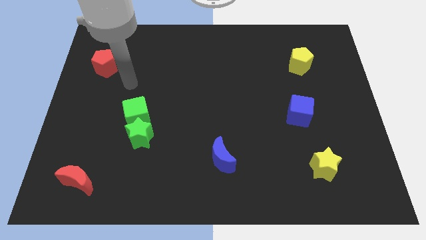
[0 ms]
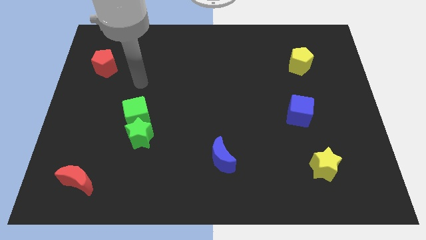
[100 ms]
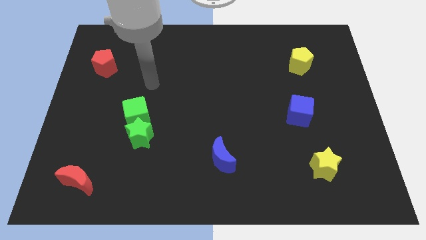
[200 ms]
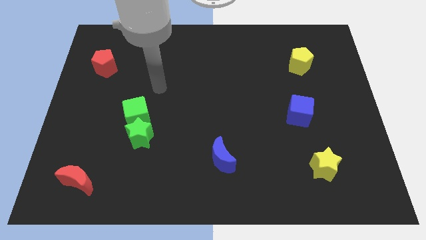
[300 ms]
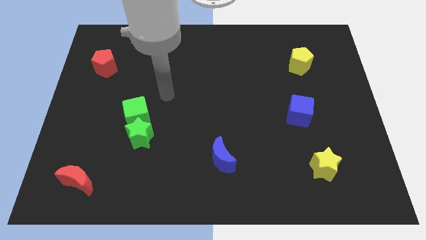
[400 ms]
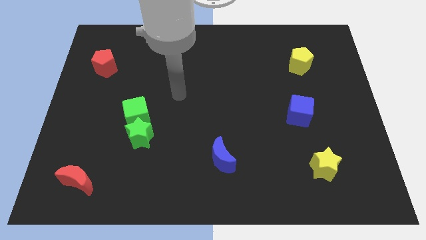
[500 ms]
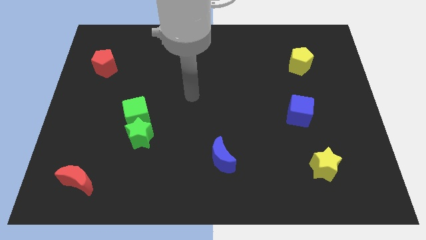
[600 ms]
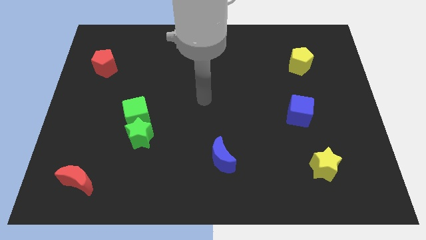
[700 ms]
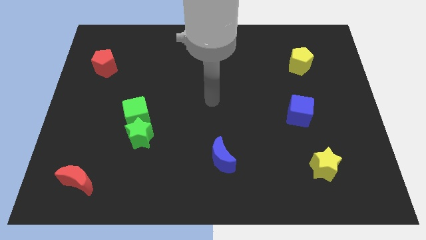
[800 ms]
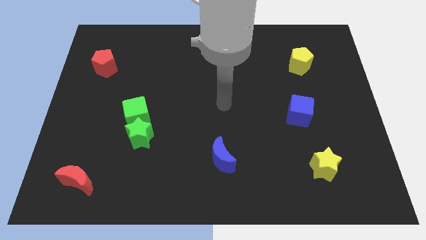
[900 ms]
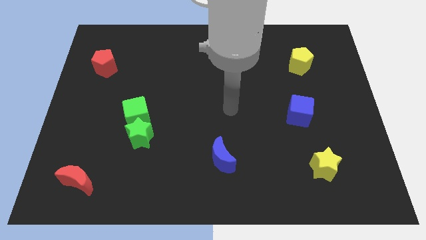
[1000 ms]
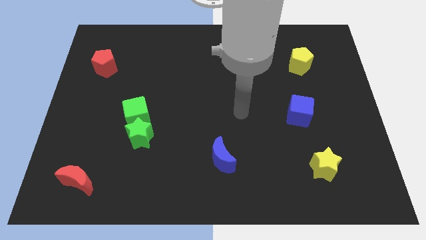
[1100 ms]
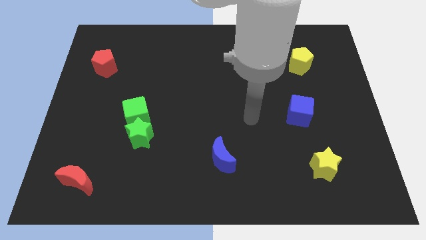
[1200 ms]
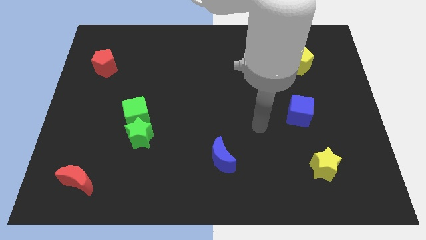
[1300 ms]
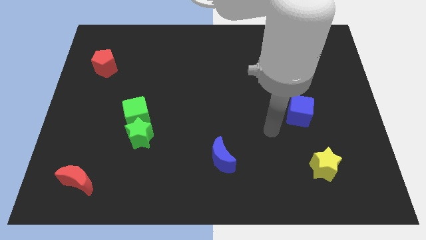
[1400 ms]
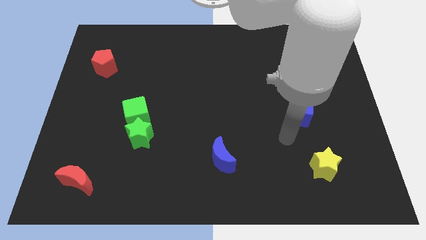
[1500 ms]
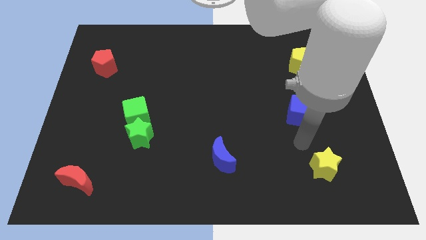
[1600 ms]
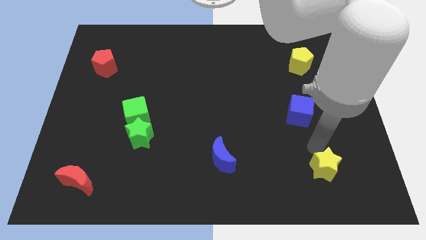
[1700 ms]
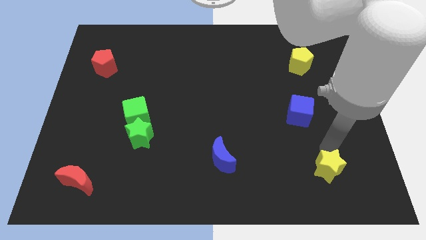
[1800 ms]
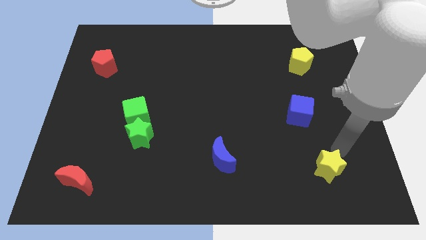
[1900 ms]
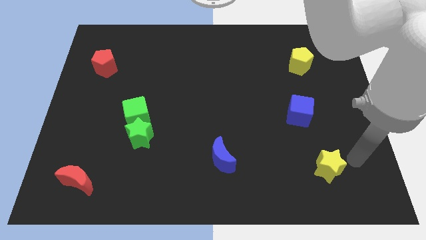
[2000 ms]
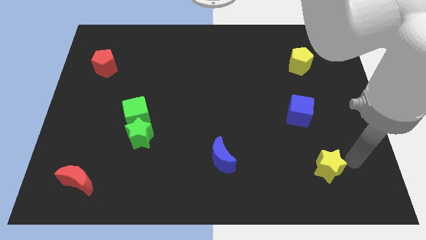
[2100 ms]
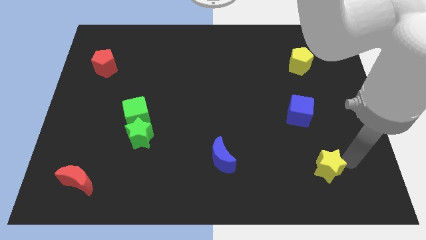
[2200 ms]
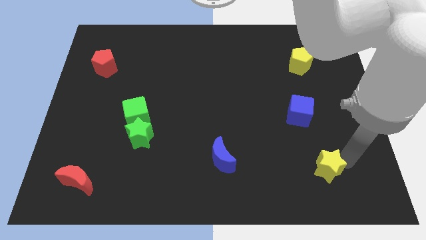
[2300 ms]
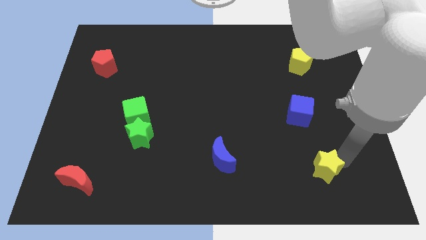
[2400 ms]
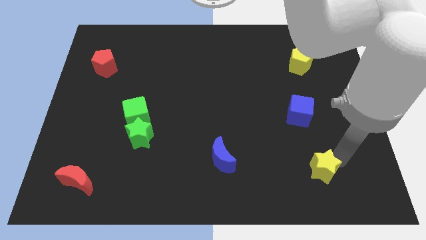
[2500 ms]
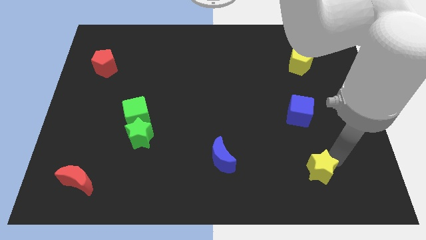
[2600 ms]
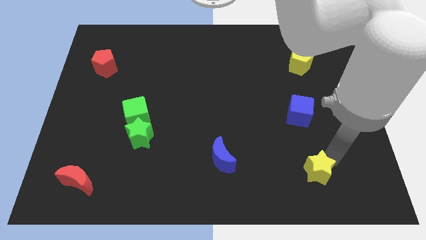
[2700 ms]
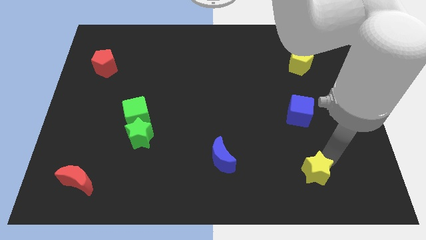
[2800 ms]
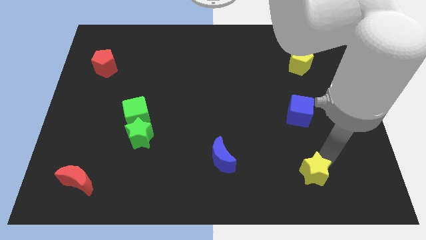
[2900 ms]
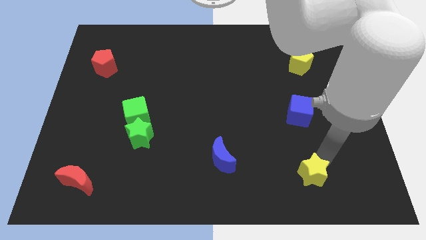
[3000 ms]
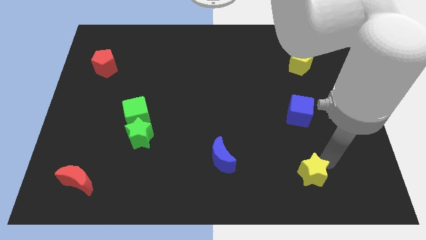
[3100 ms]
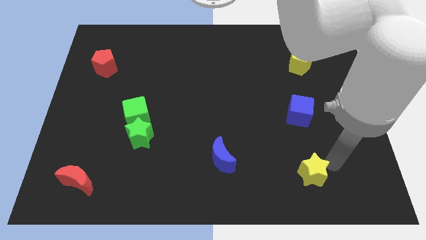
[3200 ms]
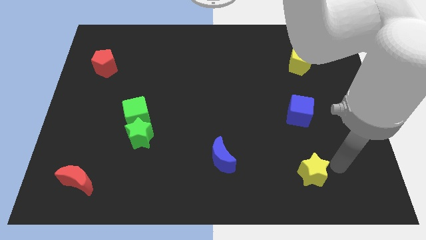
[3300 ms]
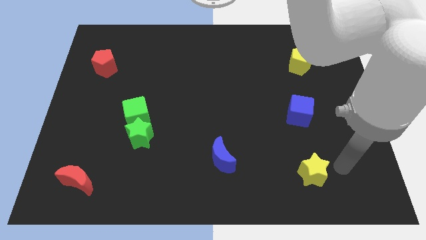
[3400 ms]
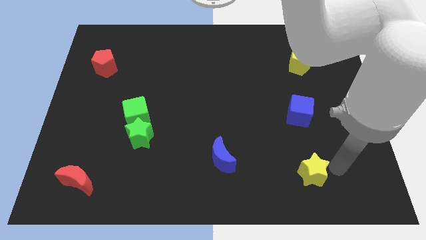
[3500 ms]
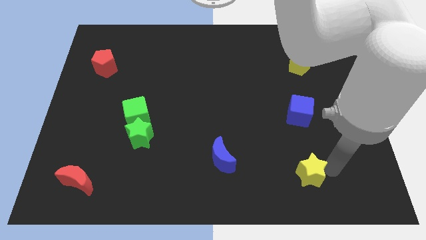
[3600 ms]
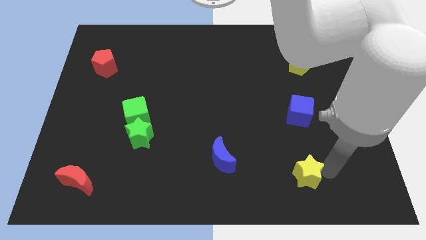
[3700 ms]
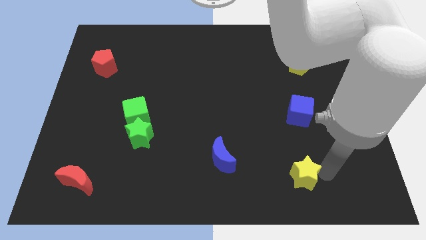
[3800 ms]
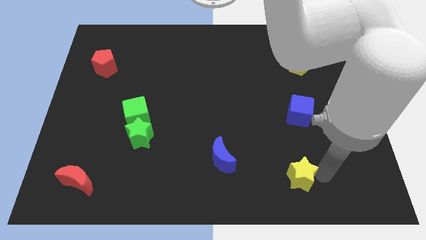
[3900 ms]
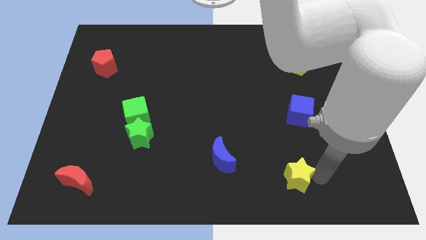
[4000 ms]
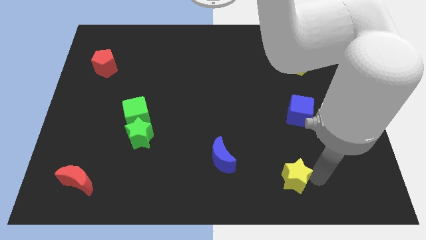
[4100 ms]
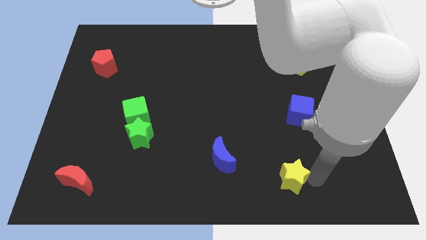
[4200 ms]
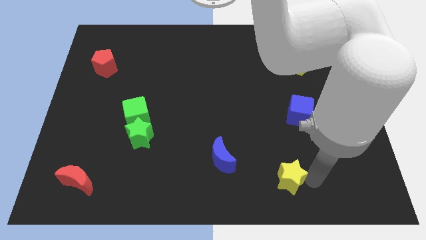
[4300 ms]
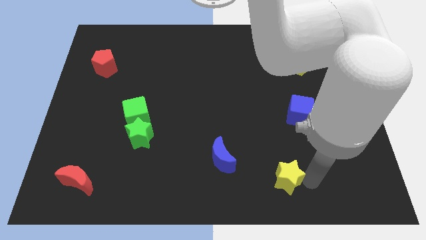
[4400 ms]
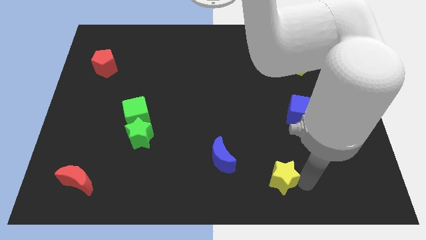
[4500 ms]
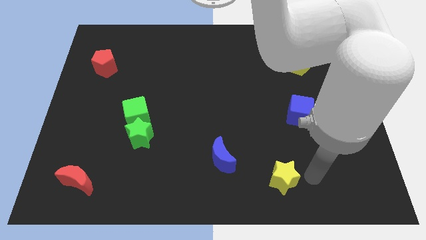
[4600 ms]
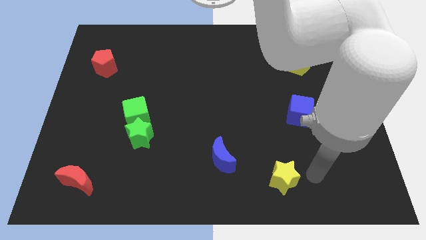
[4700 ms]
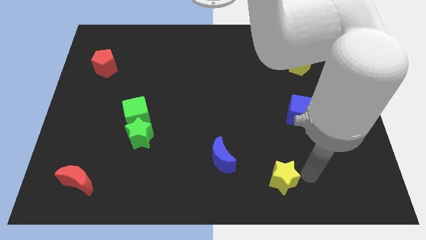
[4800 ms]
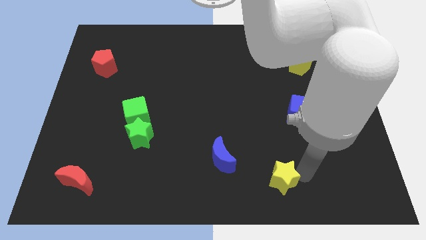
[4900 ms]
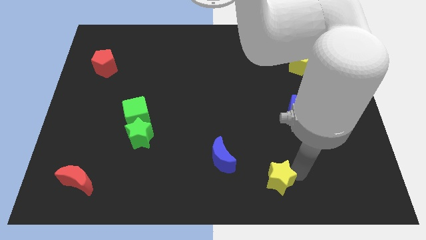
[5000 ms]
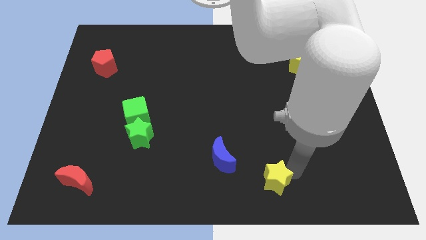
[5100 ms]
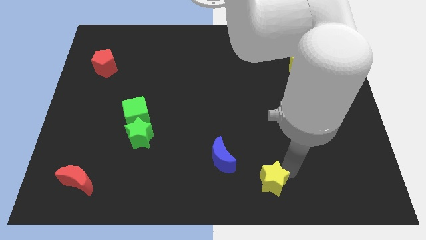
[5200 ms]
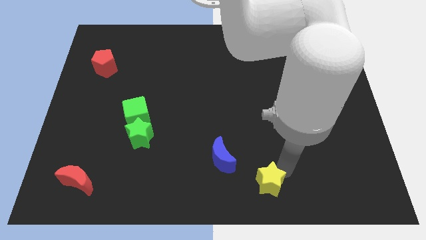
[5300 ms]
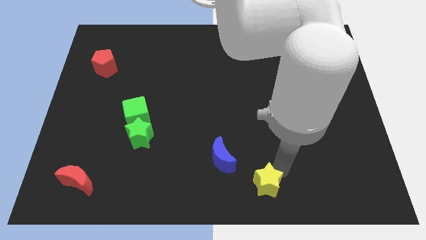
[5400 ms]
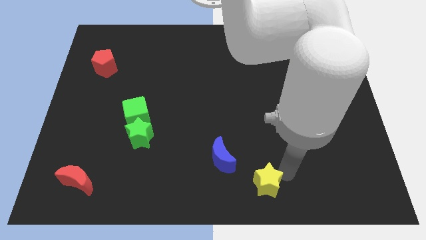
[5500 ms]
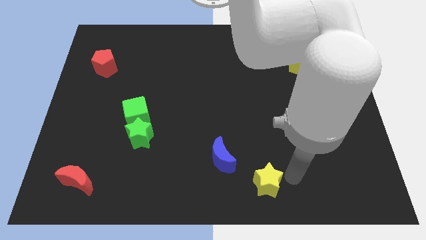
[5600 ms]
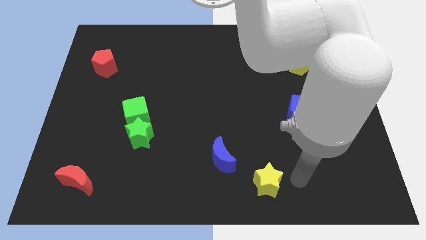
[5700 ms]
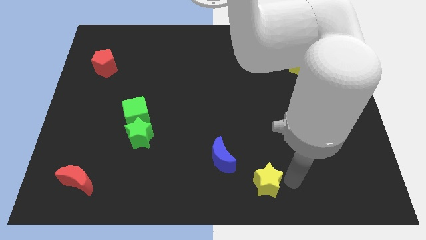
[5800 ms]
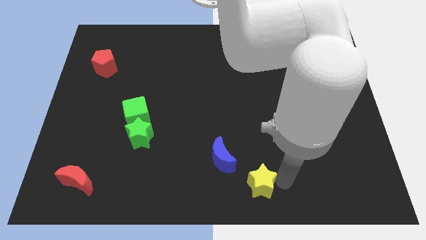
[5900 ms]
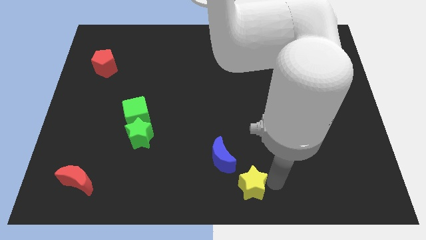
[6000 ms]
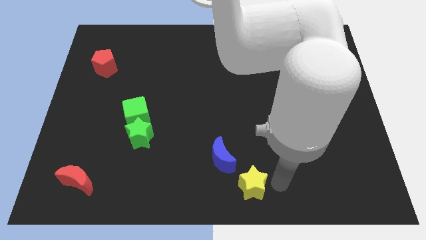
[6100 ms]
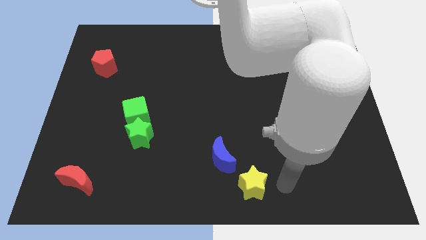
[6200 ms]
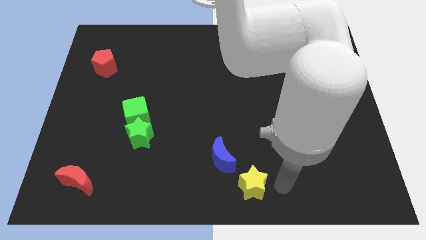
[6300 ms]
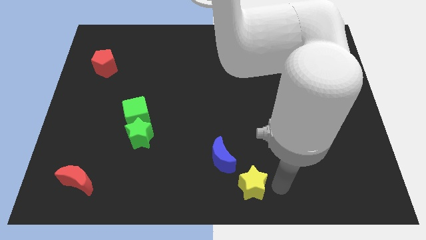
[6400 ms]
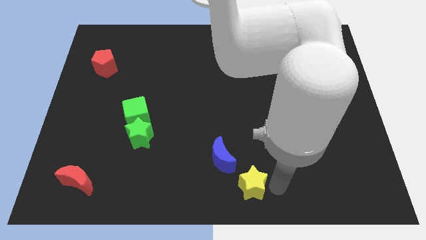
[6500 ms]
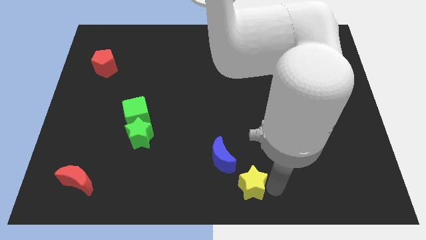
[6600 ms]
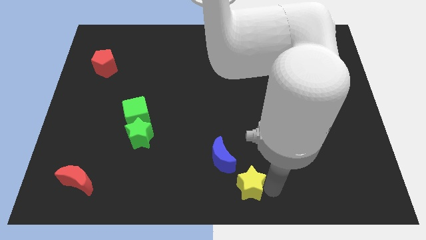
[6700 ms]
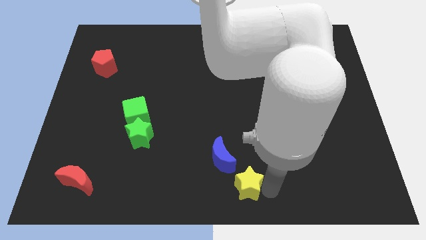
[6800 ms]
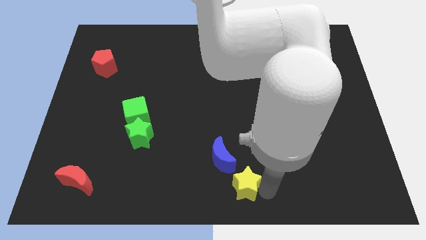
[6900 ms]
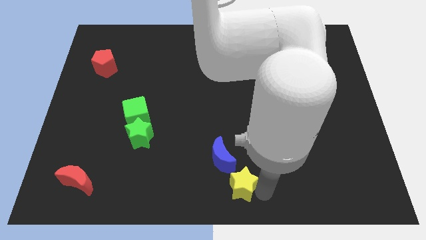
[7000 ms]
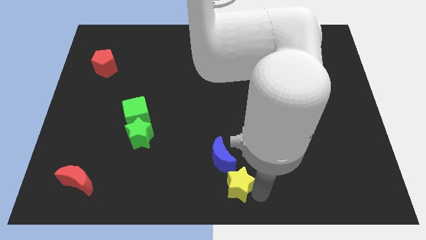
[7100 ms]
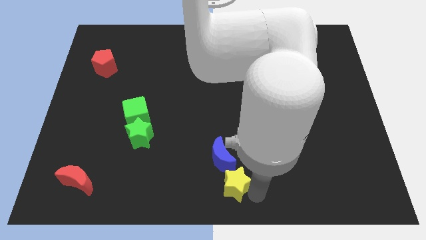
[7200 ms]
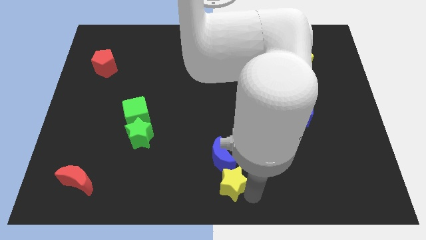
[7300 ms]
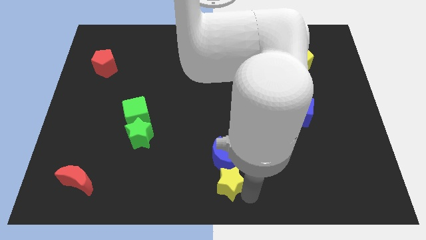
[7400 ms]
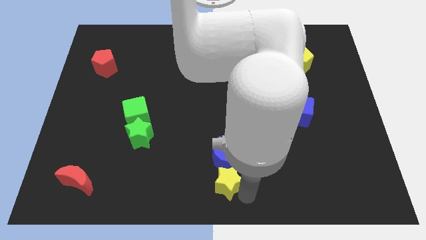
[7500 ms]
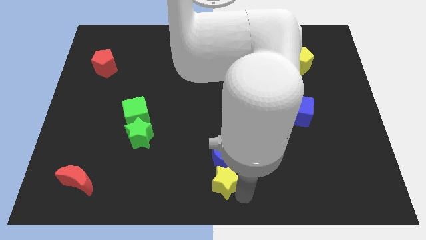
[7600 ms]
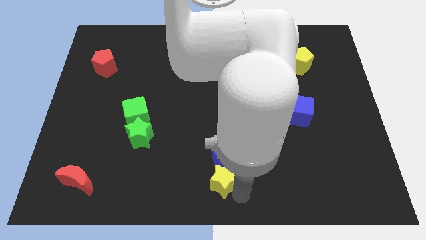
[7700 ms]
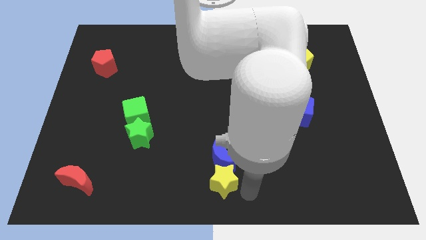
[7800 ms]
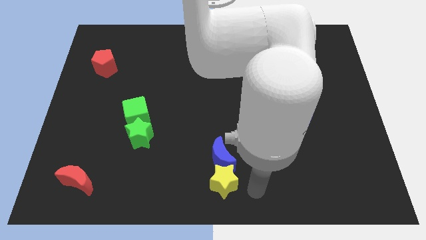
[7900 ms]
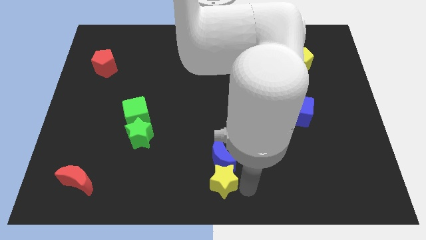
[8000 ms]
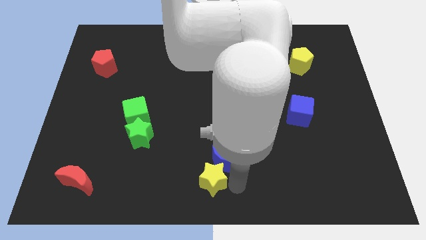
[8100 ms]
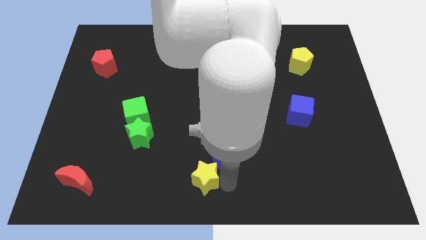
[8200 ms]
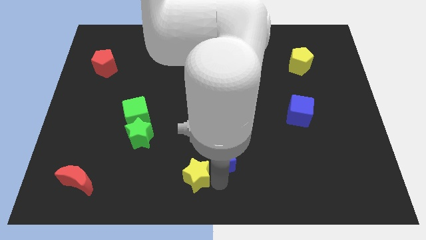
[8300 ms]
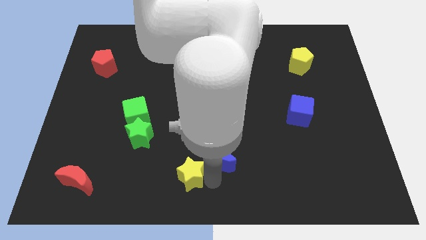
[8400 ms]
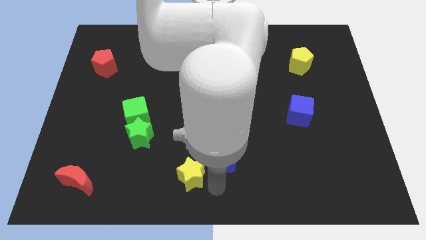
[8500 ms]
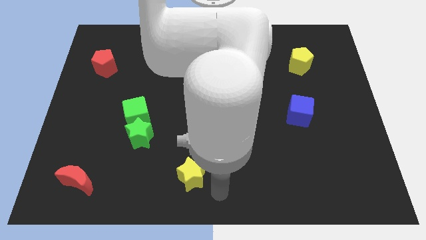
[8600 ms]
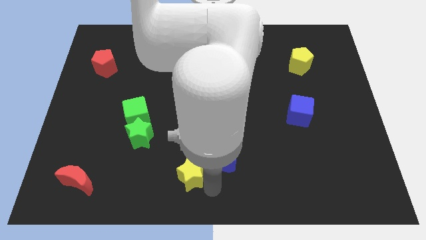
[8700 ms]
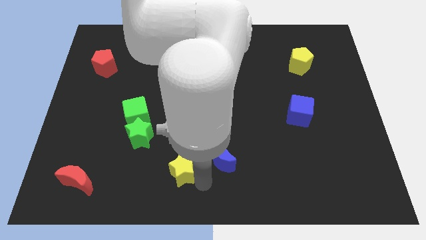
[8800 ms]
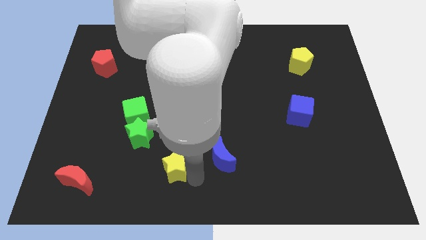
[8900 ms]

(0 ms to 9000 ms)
push the yellow star diagonally down and to the right of the green star
